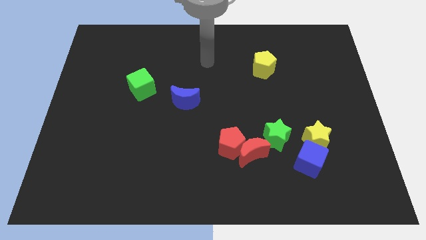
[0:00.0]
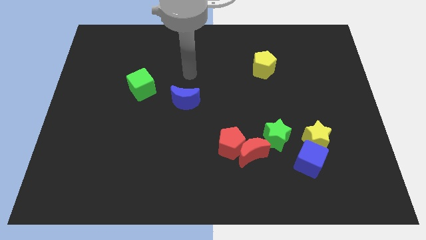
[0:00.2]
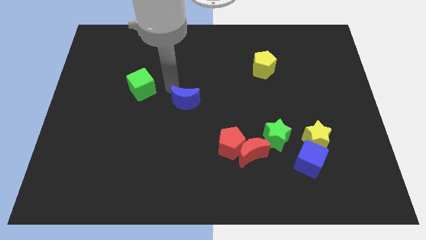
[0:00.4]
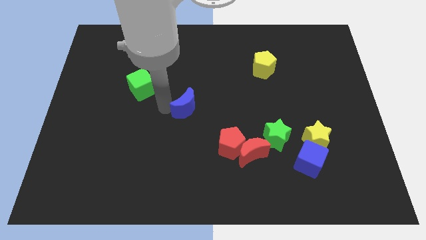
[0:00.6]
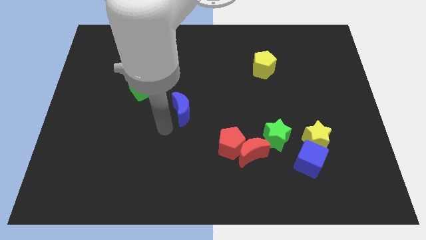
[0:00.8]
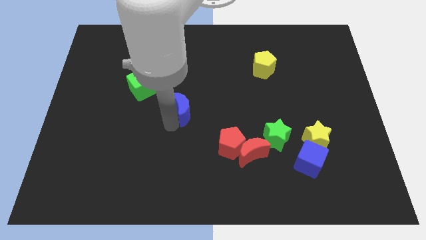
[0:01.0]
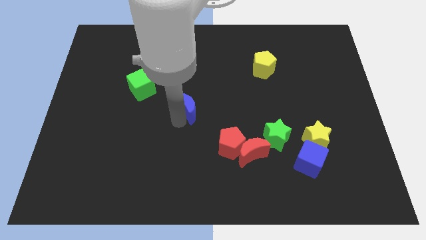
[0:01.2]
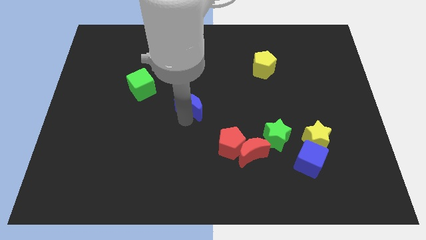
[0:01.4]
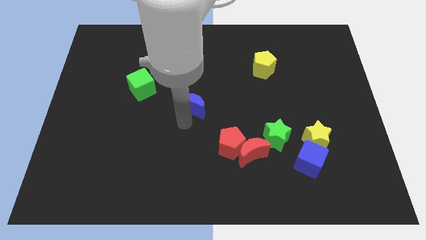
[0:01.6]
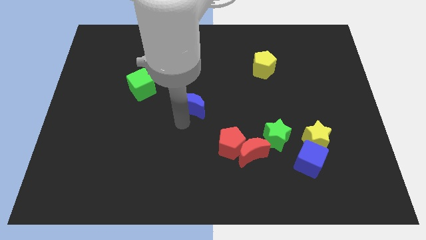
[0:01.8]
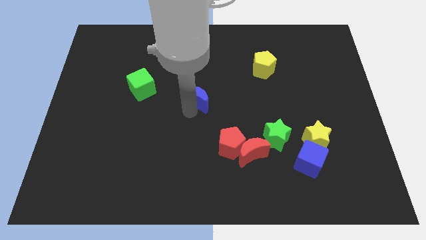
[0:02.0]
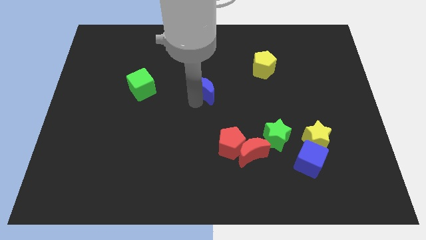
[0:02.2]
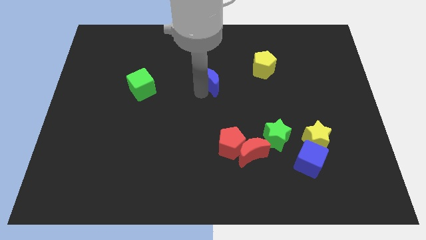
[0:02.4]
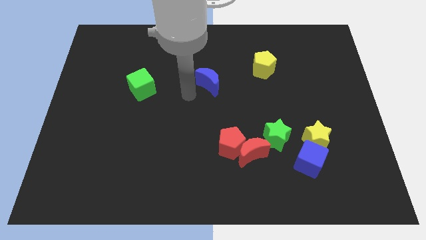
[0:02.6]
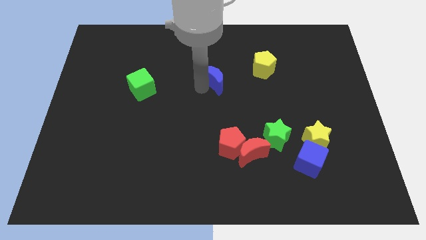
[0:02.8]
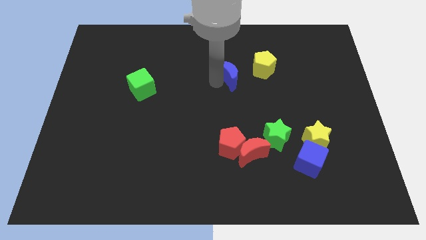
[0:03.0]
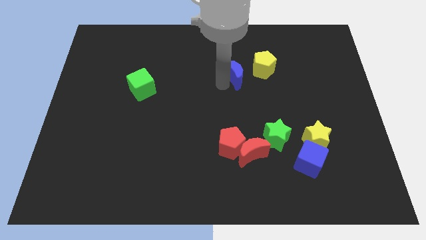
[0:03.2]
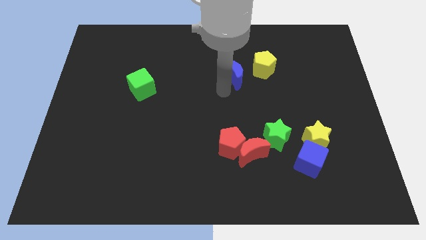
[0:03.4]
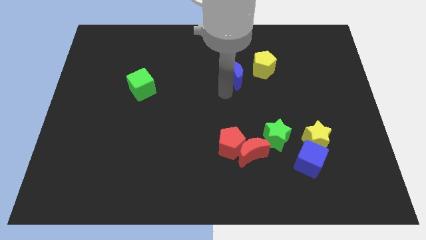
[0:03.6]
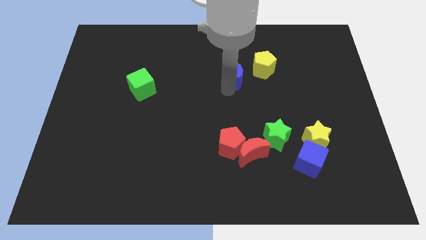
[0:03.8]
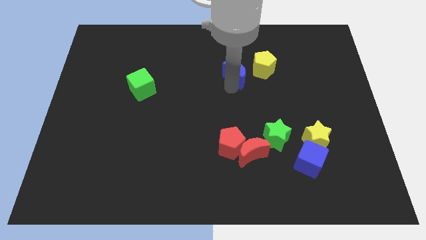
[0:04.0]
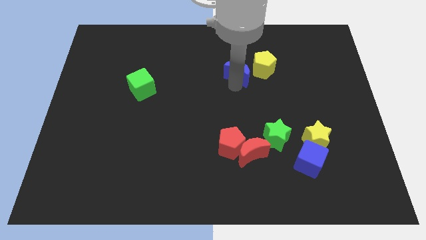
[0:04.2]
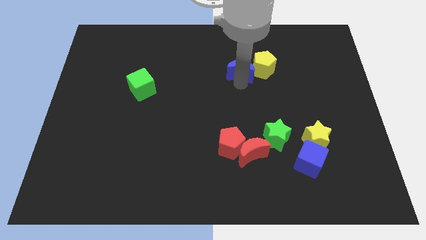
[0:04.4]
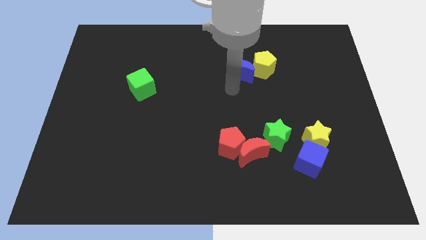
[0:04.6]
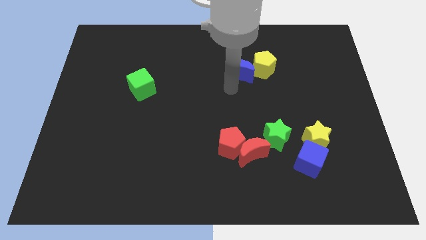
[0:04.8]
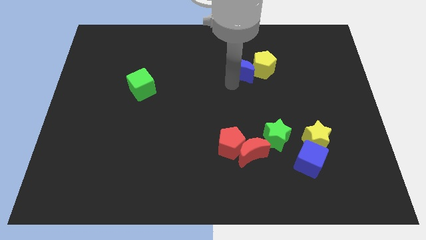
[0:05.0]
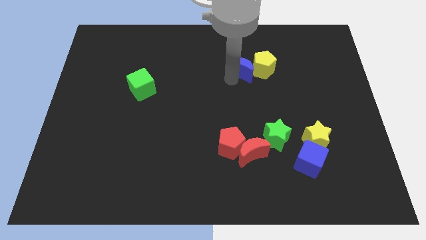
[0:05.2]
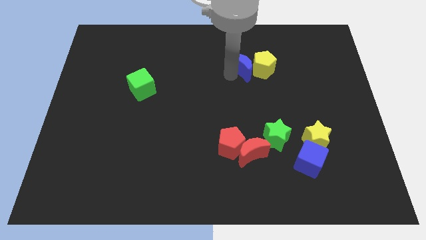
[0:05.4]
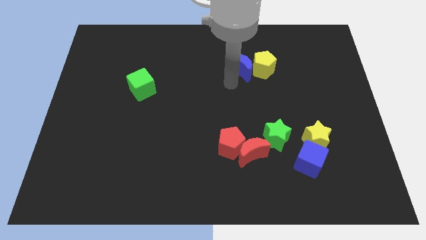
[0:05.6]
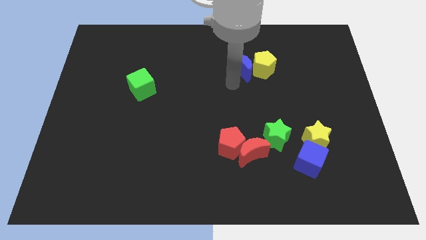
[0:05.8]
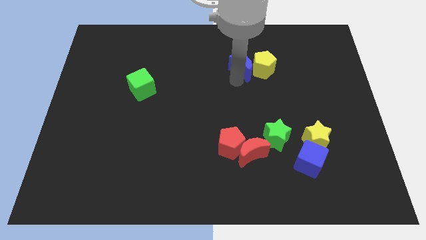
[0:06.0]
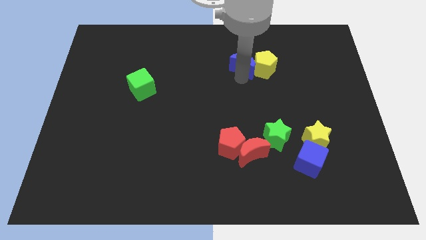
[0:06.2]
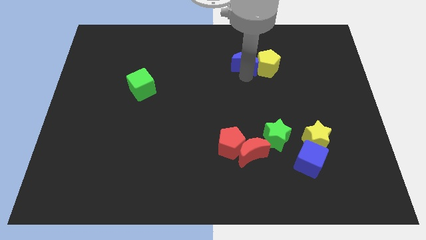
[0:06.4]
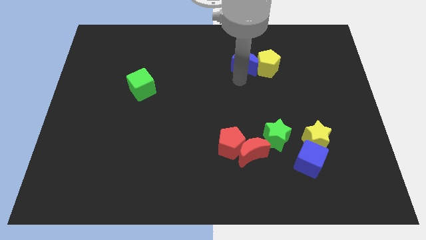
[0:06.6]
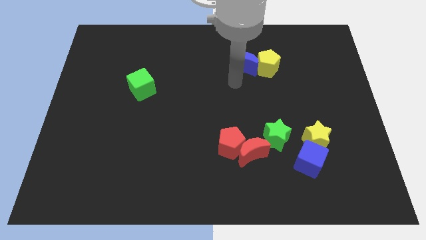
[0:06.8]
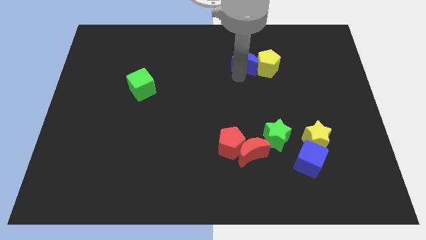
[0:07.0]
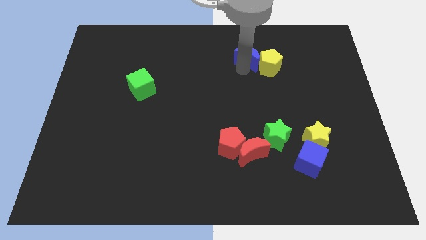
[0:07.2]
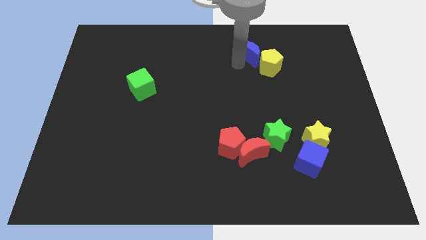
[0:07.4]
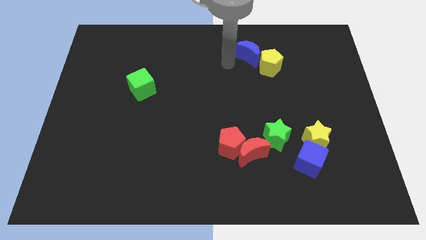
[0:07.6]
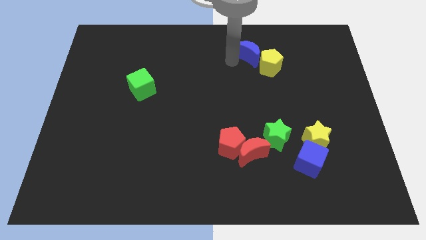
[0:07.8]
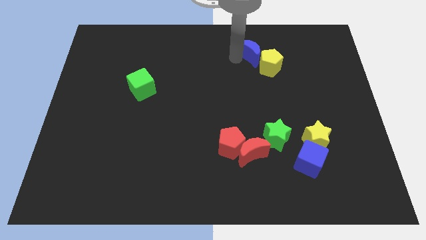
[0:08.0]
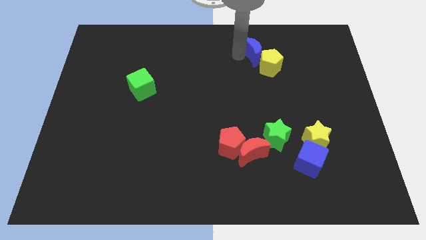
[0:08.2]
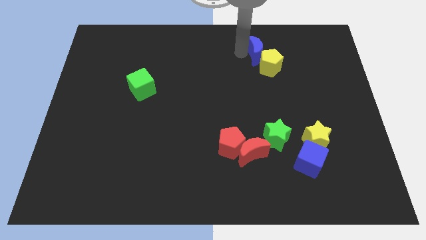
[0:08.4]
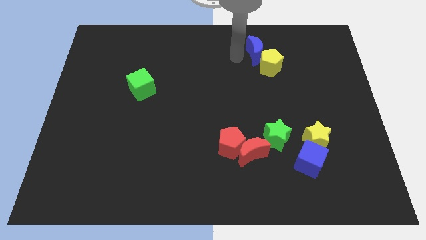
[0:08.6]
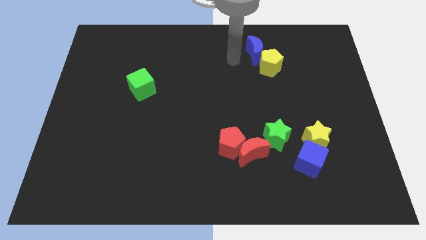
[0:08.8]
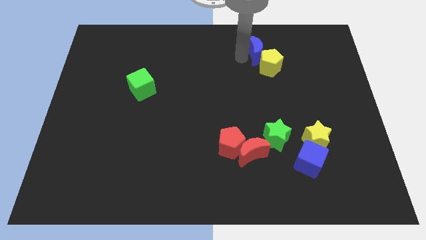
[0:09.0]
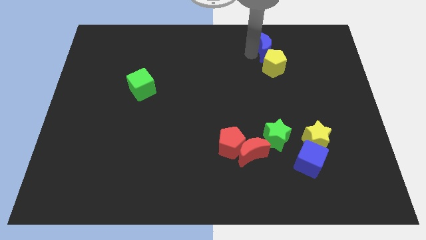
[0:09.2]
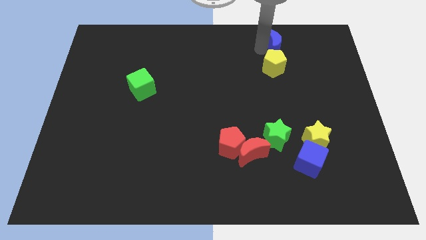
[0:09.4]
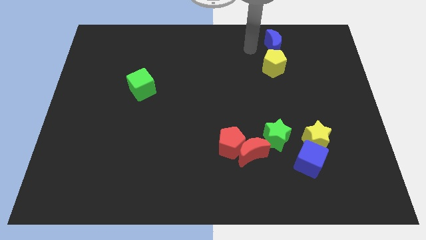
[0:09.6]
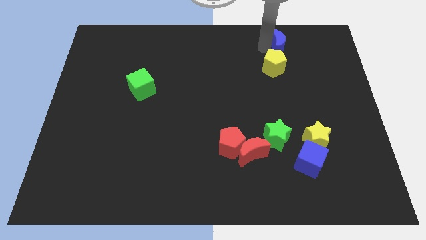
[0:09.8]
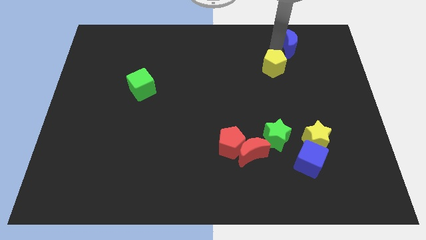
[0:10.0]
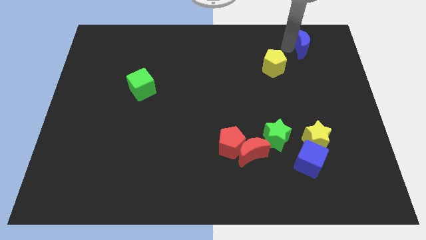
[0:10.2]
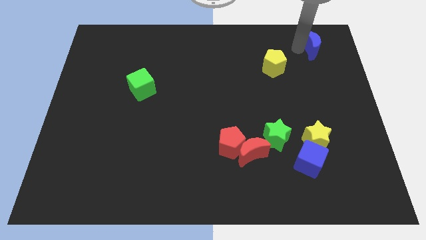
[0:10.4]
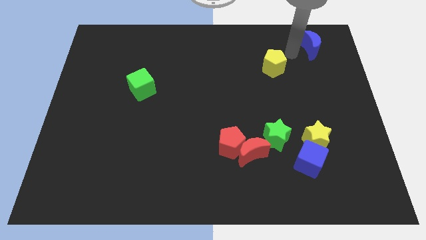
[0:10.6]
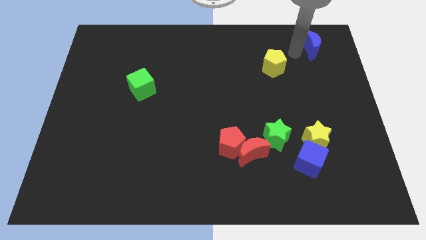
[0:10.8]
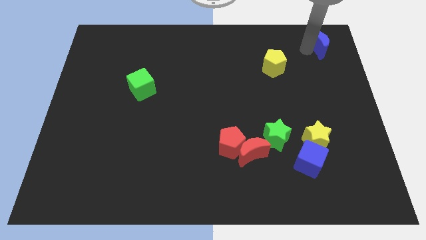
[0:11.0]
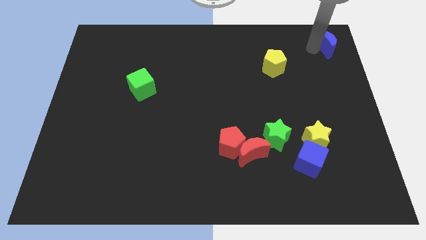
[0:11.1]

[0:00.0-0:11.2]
slide the blue moon to the top right of the board

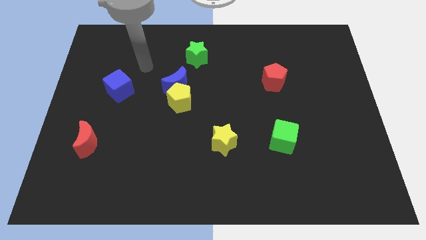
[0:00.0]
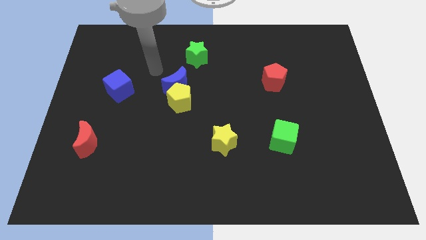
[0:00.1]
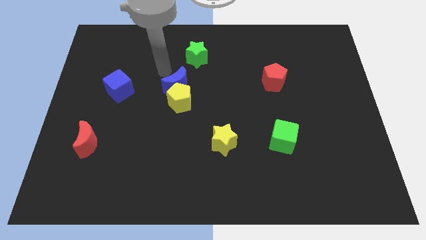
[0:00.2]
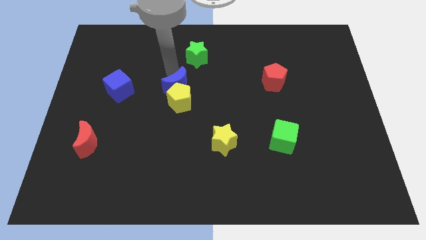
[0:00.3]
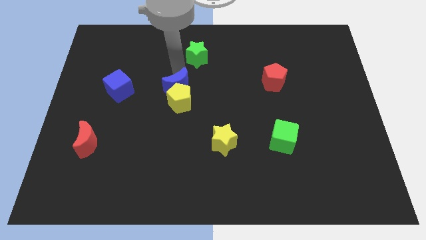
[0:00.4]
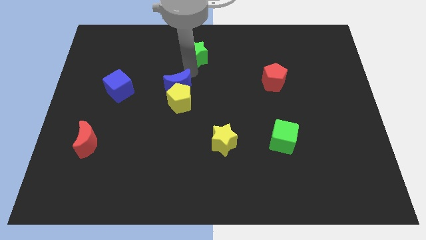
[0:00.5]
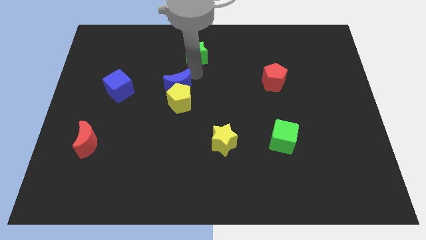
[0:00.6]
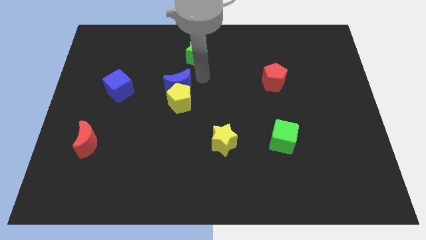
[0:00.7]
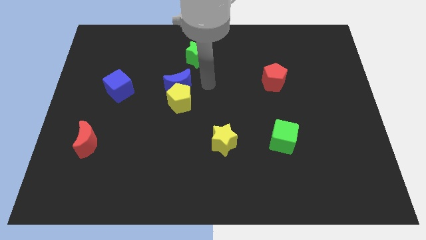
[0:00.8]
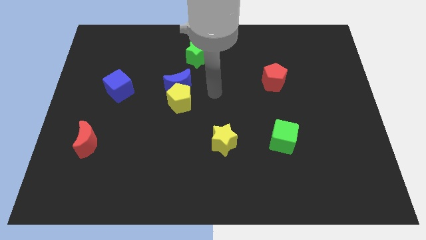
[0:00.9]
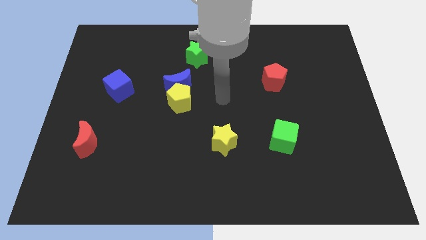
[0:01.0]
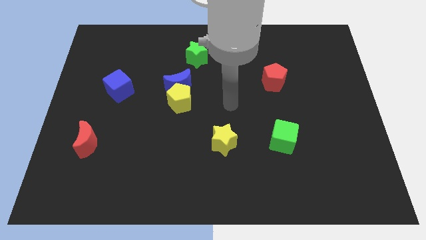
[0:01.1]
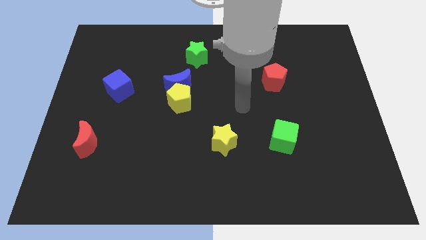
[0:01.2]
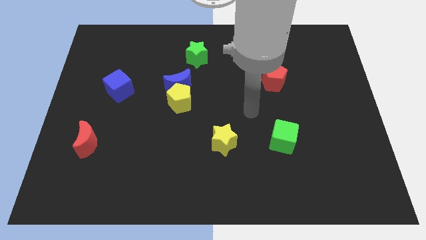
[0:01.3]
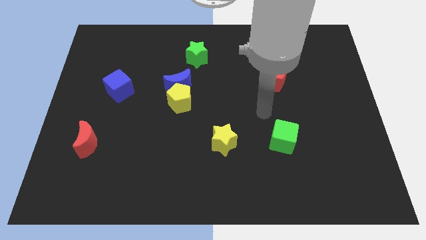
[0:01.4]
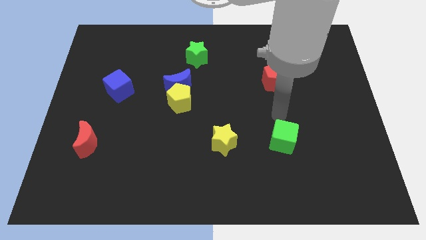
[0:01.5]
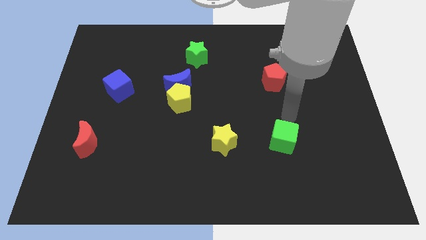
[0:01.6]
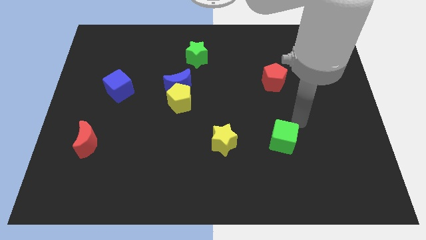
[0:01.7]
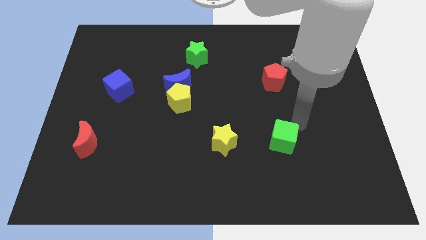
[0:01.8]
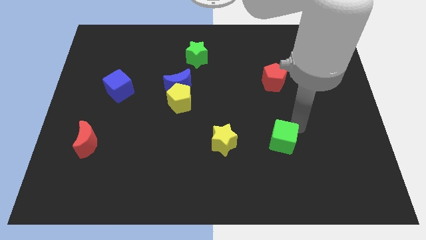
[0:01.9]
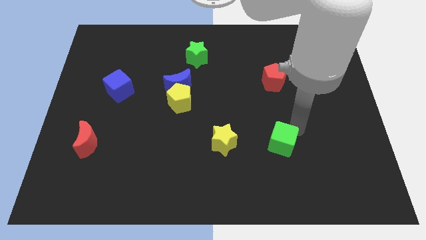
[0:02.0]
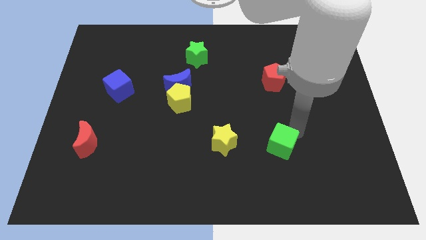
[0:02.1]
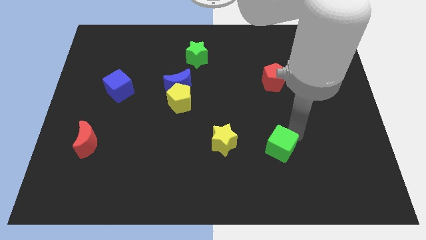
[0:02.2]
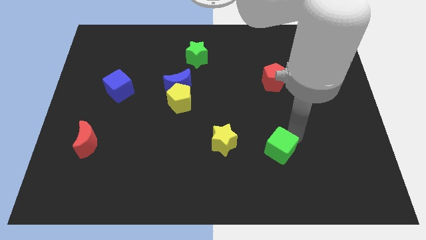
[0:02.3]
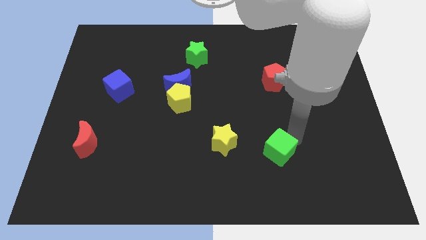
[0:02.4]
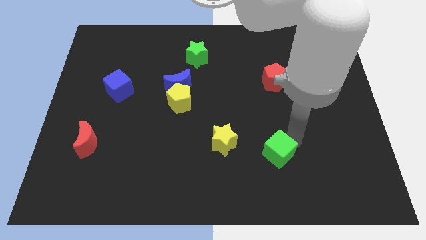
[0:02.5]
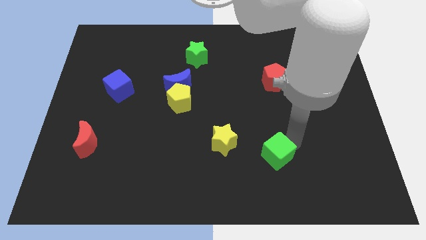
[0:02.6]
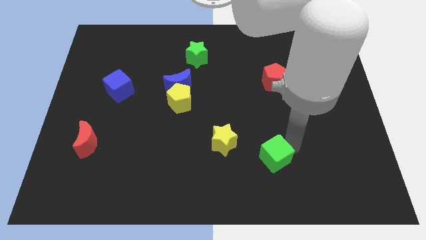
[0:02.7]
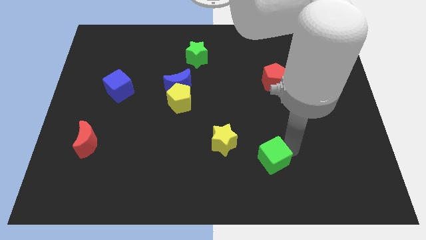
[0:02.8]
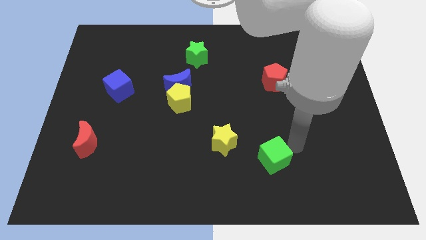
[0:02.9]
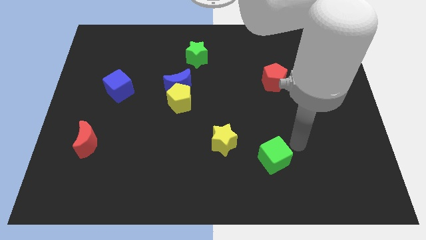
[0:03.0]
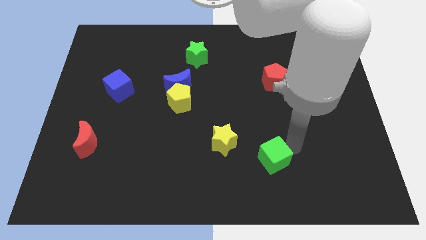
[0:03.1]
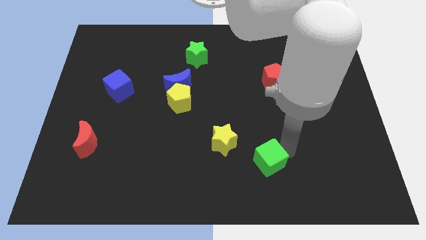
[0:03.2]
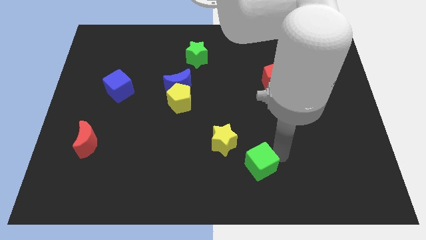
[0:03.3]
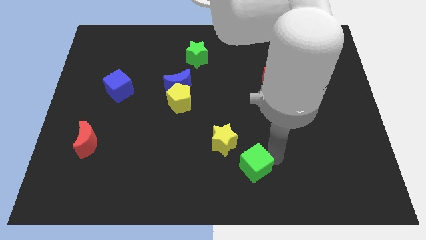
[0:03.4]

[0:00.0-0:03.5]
move the green cube to the bottom side
